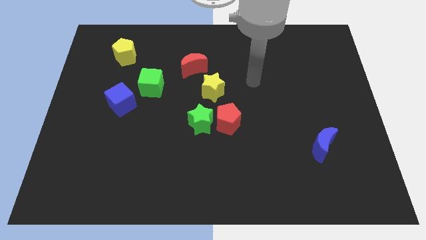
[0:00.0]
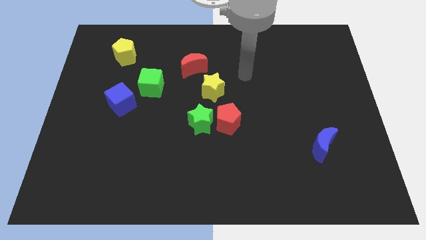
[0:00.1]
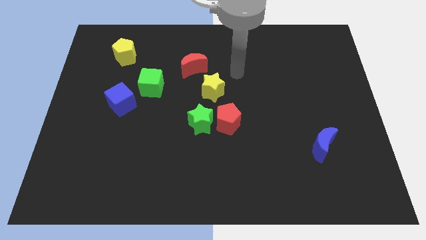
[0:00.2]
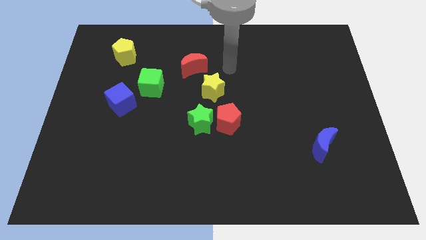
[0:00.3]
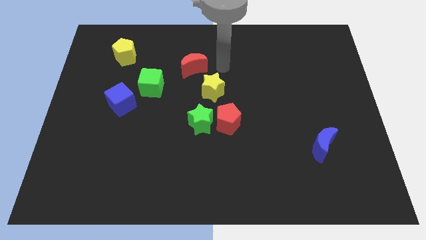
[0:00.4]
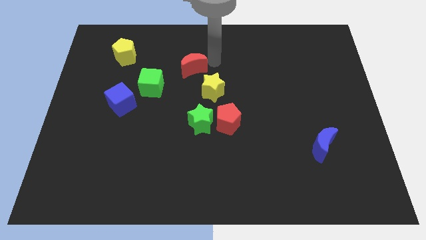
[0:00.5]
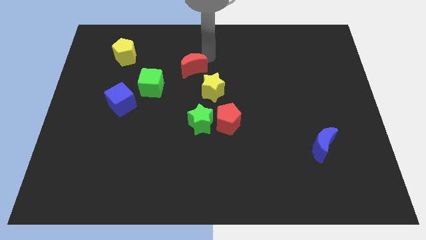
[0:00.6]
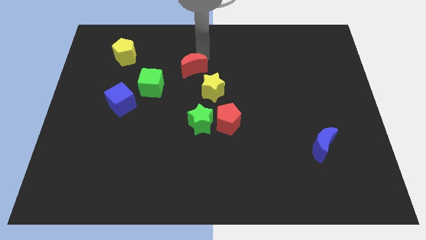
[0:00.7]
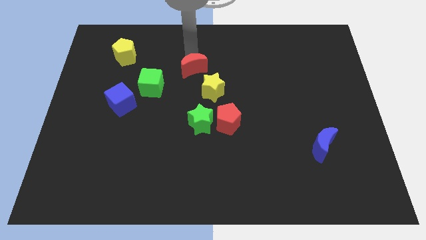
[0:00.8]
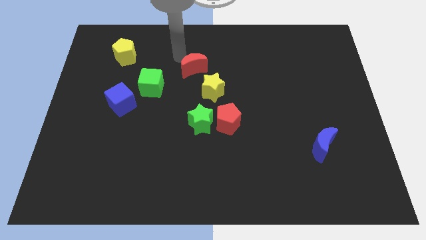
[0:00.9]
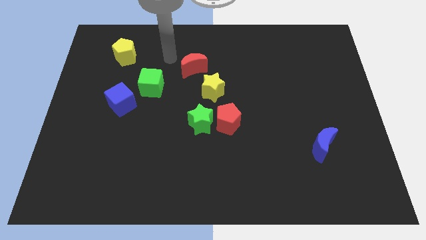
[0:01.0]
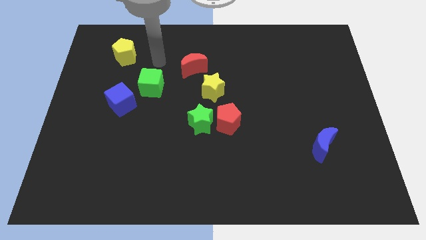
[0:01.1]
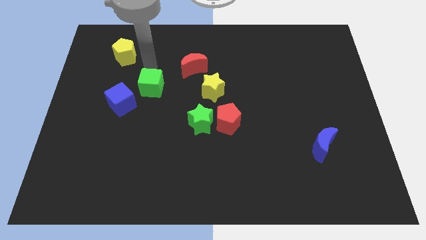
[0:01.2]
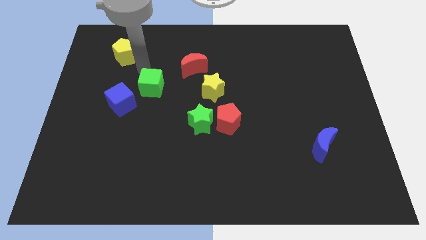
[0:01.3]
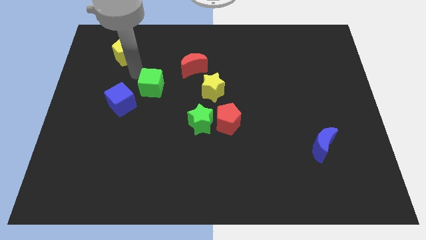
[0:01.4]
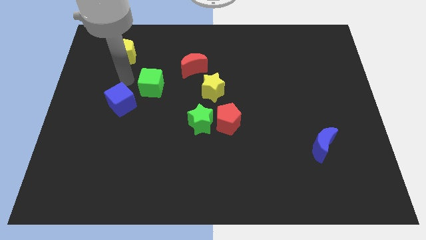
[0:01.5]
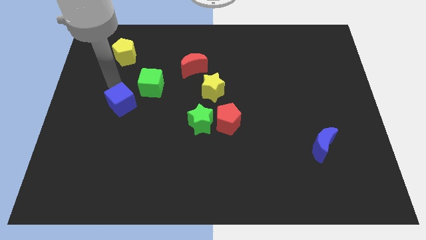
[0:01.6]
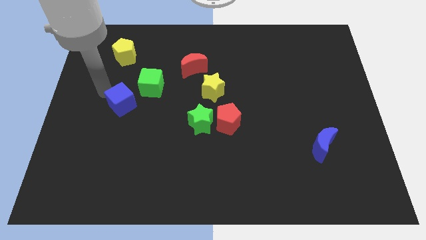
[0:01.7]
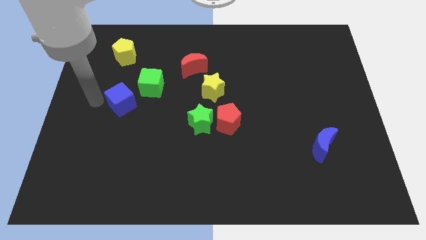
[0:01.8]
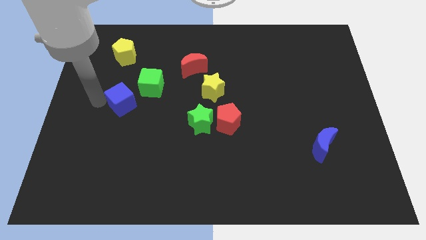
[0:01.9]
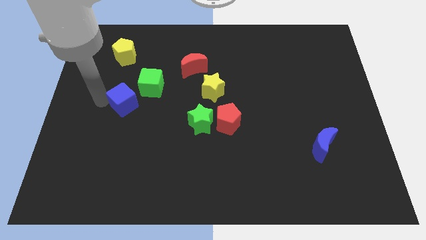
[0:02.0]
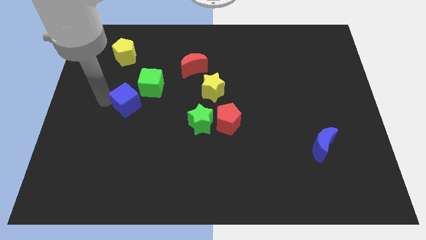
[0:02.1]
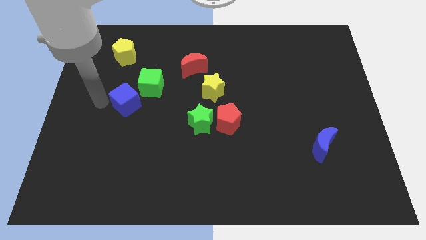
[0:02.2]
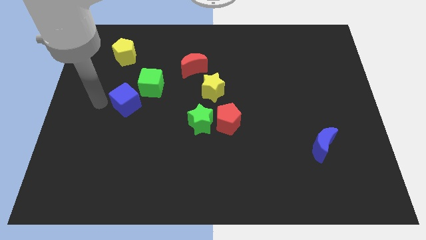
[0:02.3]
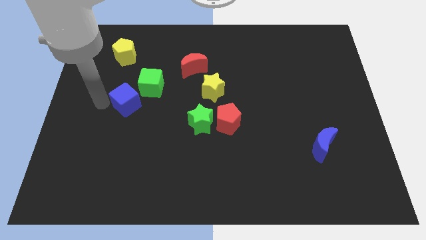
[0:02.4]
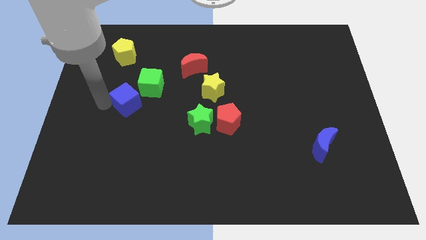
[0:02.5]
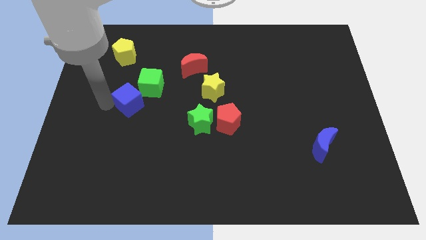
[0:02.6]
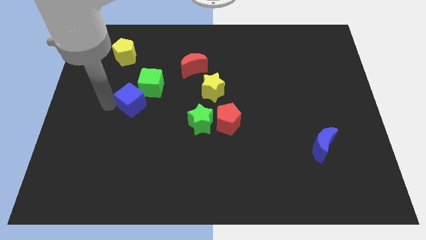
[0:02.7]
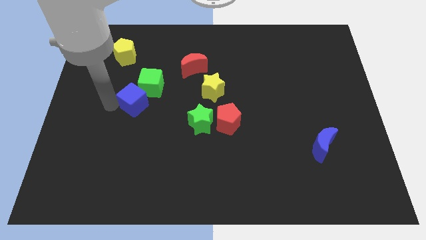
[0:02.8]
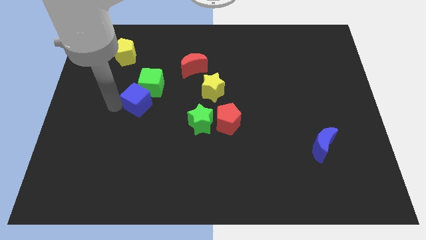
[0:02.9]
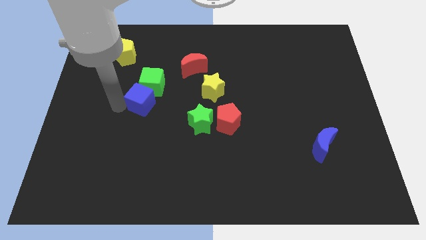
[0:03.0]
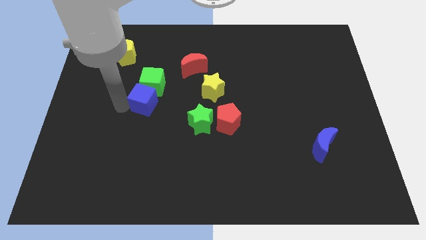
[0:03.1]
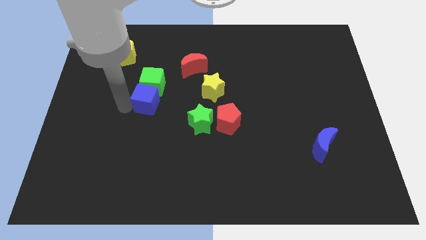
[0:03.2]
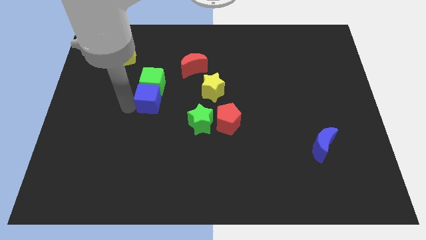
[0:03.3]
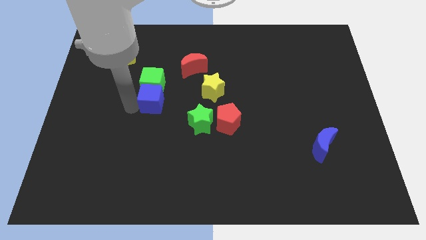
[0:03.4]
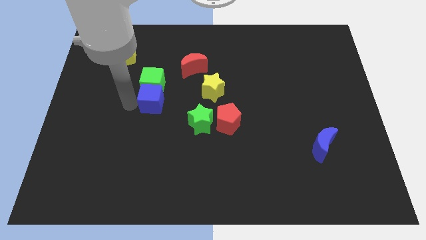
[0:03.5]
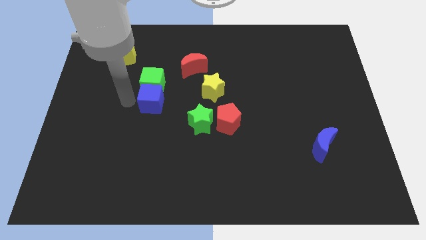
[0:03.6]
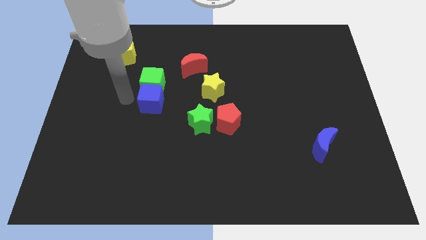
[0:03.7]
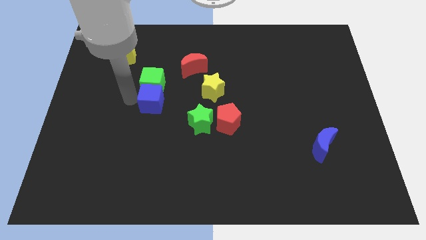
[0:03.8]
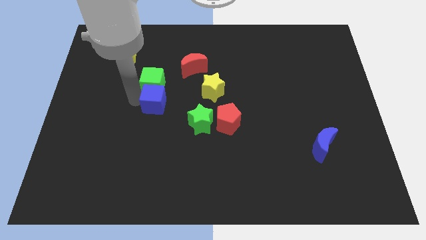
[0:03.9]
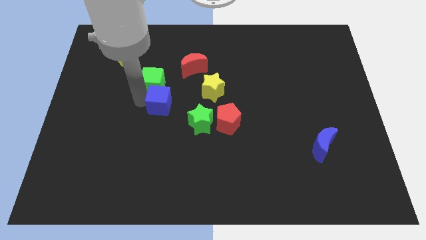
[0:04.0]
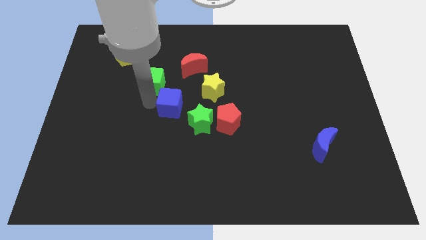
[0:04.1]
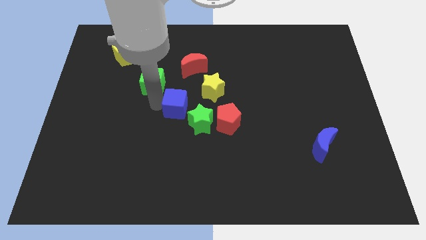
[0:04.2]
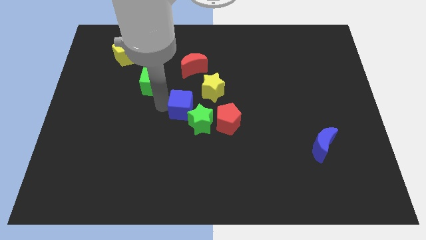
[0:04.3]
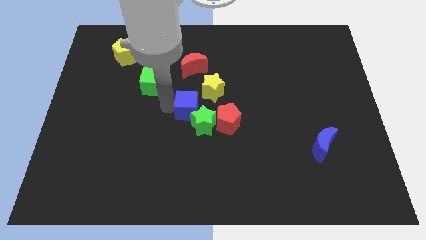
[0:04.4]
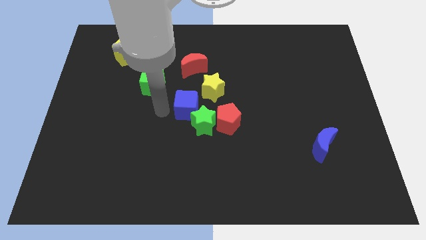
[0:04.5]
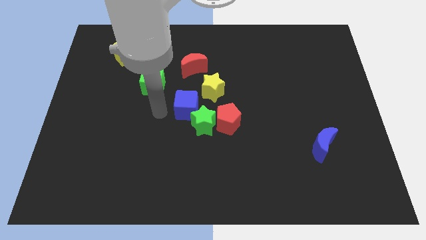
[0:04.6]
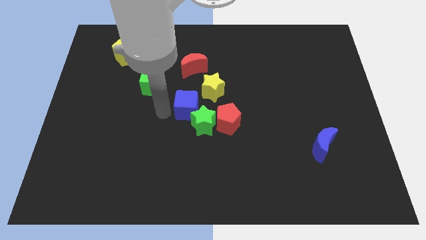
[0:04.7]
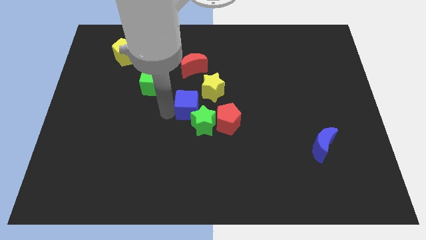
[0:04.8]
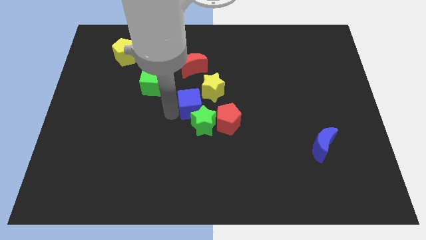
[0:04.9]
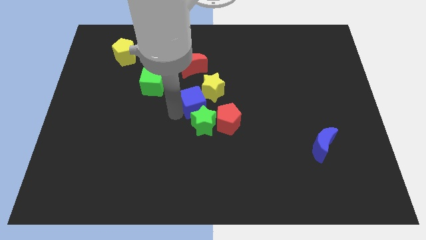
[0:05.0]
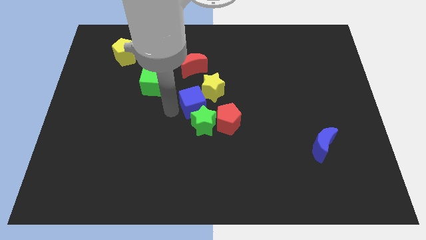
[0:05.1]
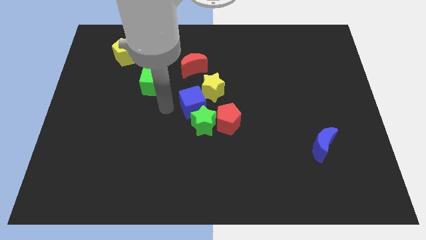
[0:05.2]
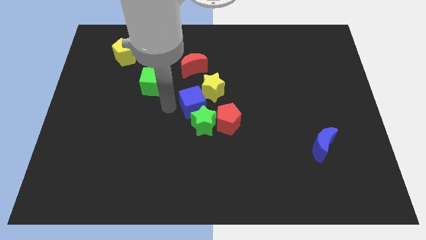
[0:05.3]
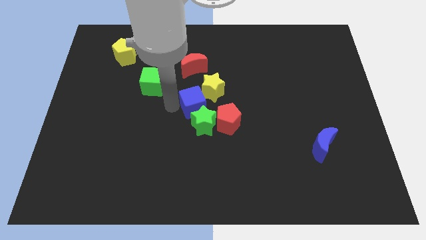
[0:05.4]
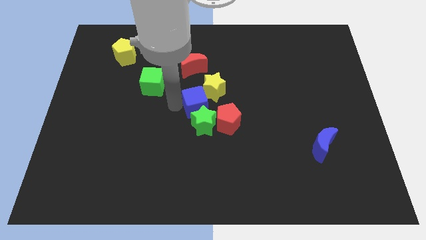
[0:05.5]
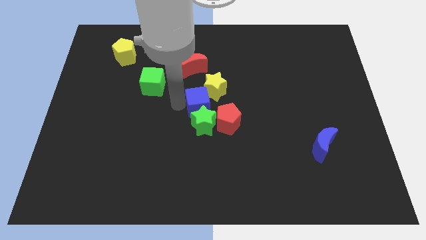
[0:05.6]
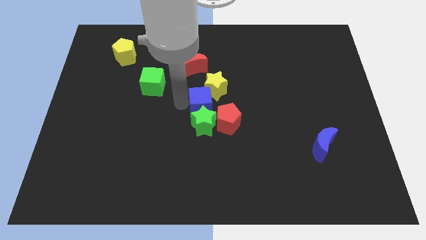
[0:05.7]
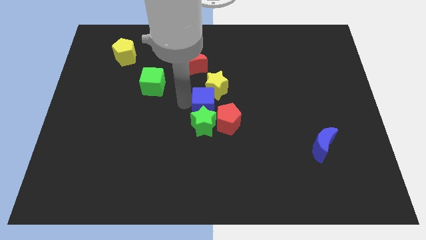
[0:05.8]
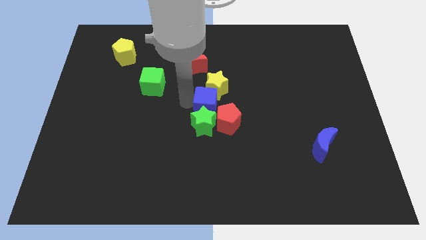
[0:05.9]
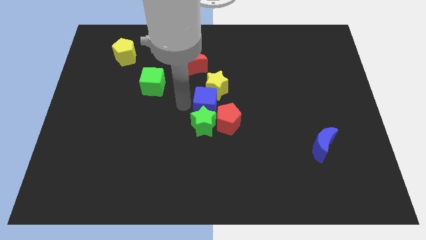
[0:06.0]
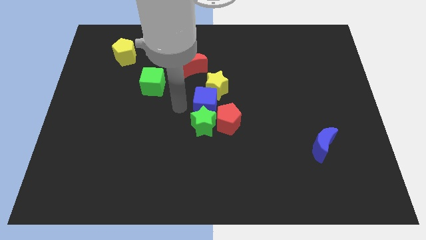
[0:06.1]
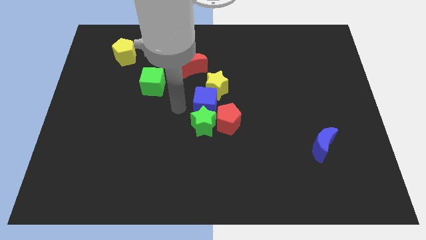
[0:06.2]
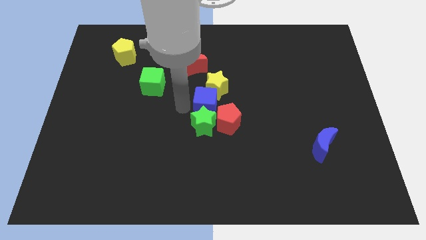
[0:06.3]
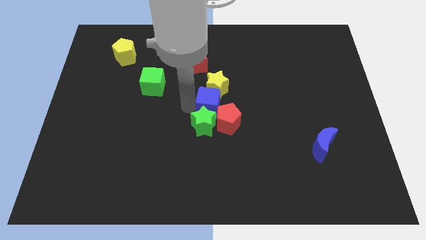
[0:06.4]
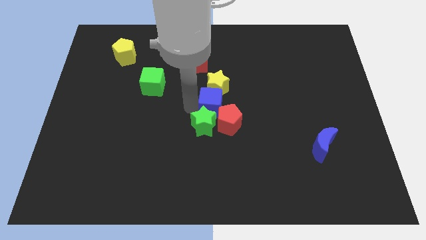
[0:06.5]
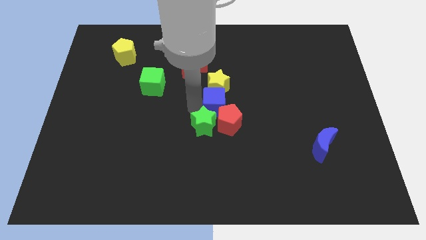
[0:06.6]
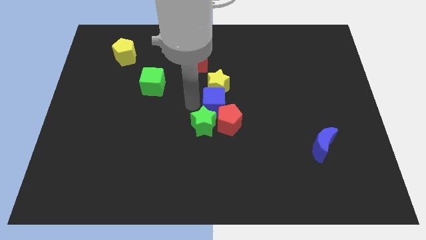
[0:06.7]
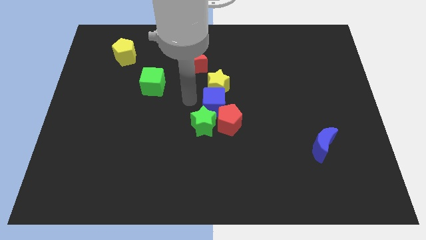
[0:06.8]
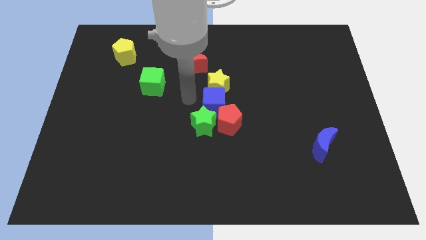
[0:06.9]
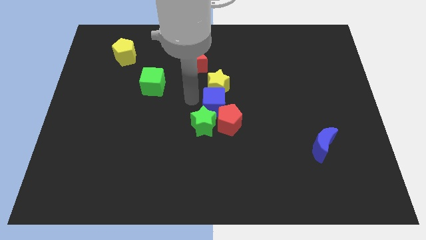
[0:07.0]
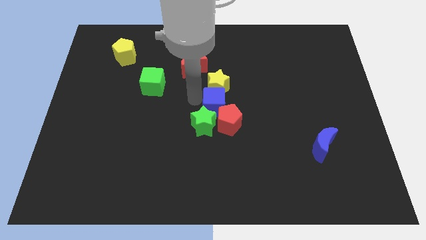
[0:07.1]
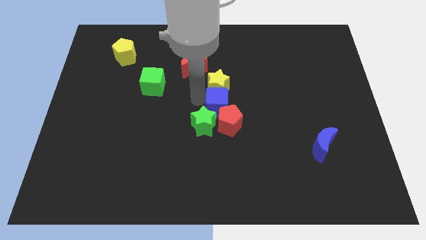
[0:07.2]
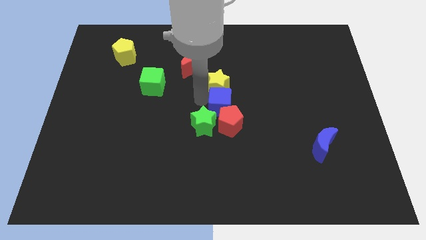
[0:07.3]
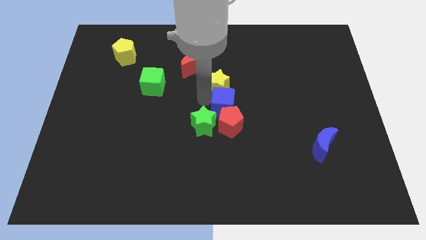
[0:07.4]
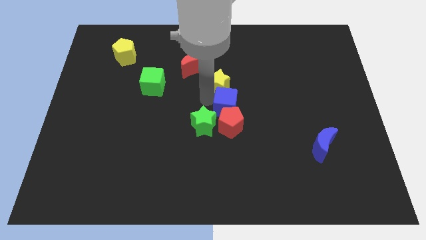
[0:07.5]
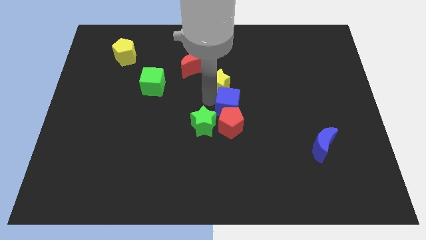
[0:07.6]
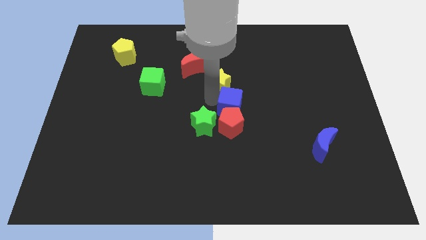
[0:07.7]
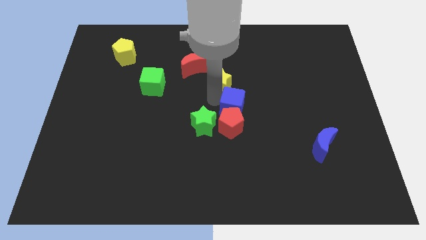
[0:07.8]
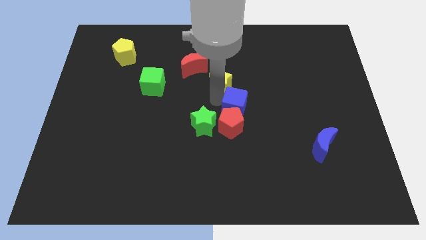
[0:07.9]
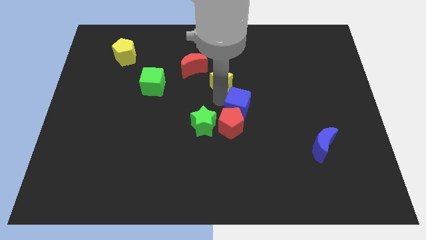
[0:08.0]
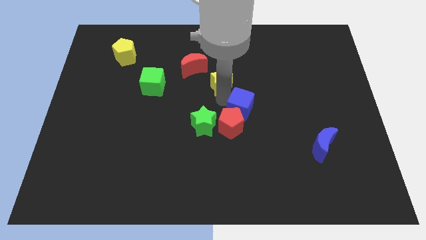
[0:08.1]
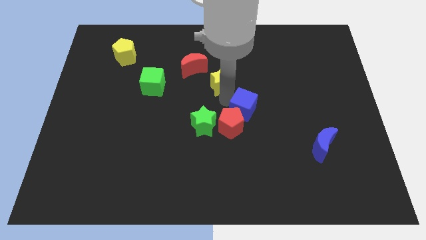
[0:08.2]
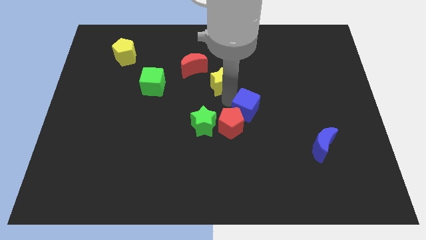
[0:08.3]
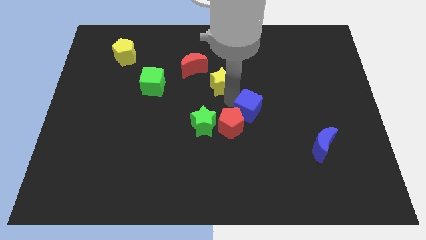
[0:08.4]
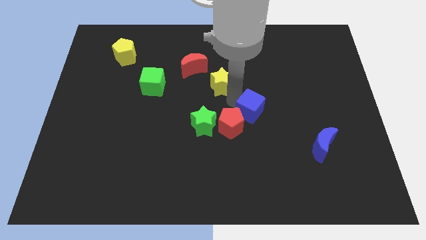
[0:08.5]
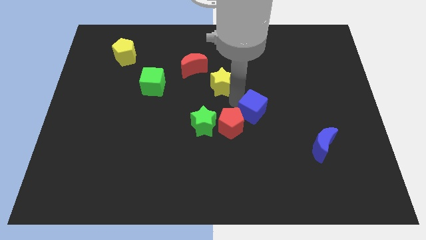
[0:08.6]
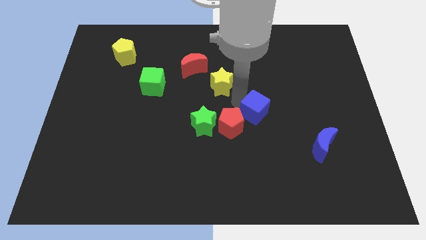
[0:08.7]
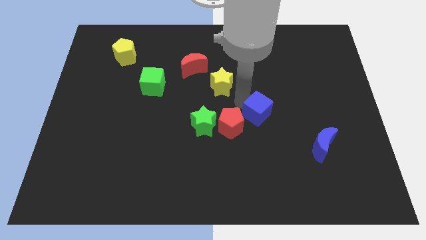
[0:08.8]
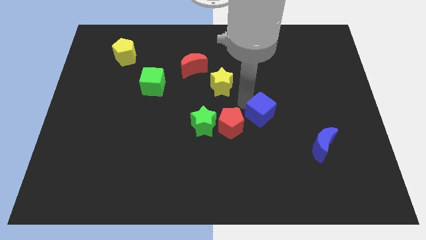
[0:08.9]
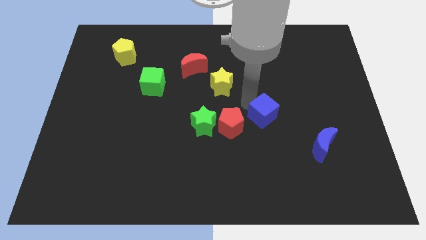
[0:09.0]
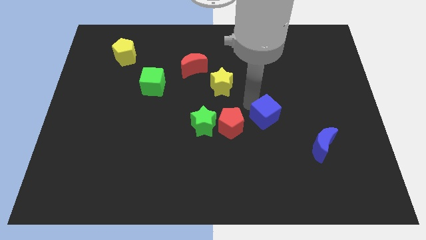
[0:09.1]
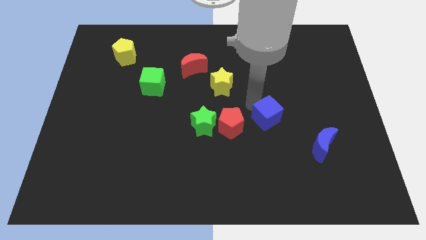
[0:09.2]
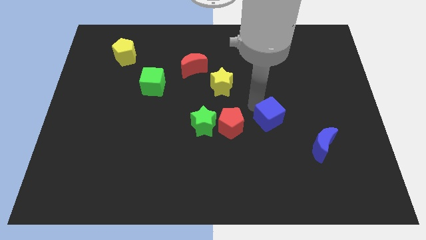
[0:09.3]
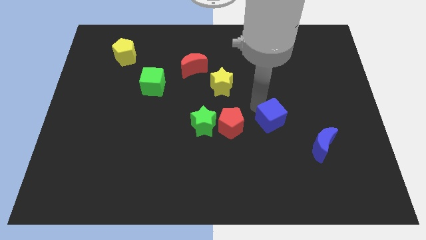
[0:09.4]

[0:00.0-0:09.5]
put the blue cube diagonally up and to the left of the blue moon
